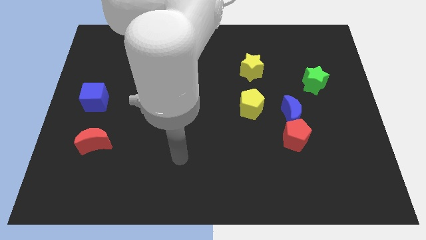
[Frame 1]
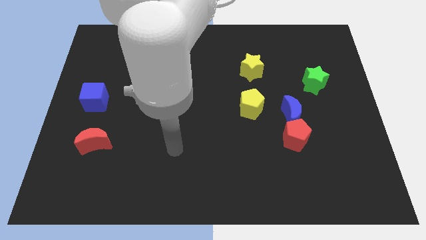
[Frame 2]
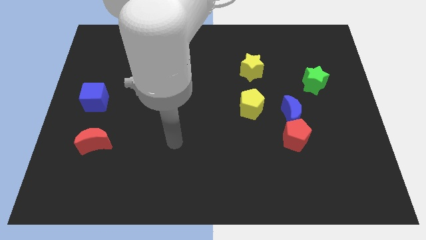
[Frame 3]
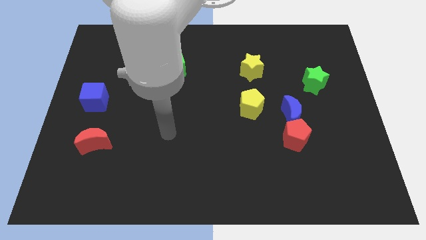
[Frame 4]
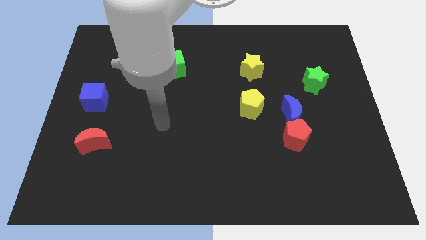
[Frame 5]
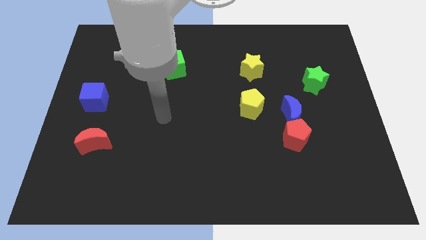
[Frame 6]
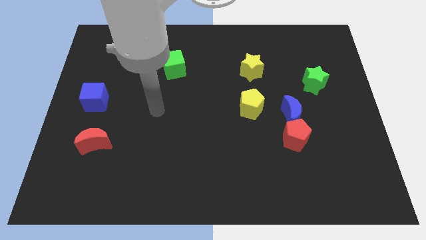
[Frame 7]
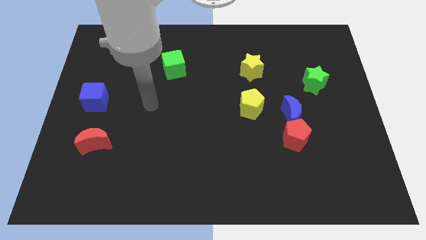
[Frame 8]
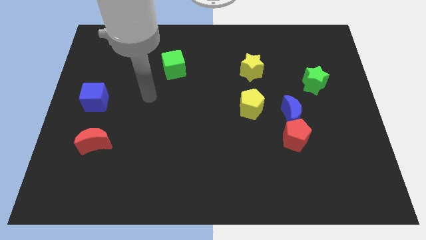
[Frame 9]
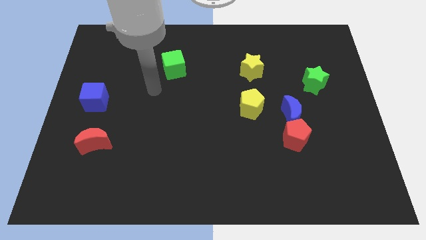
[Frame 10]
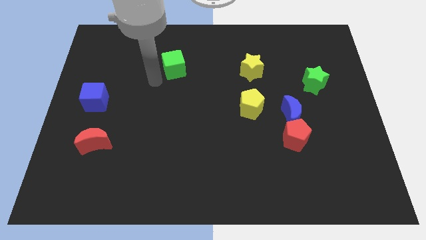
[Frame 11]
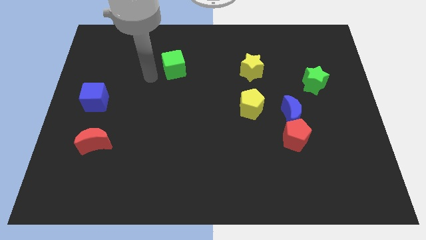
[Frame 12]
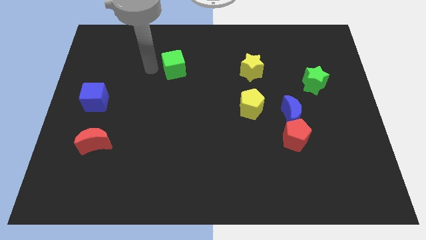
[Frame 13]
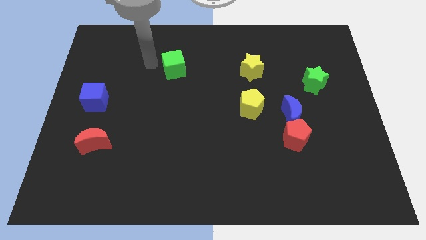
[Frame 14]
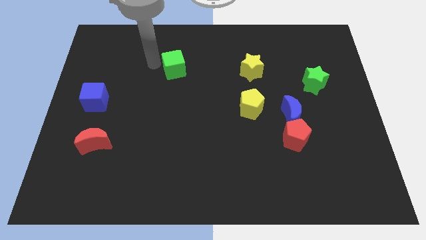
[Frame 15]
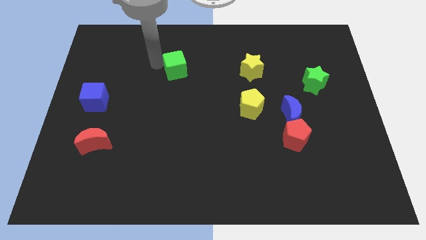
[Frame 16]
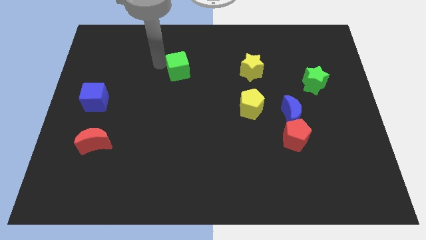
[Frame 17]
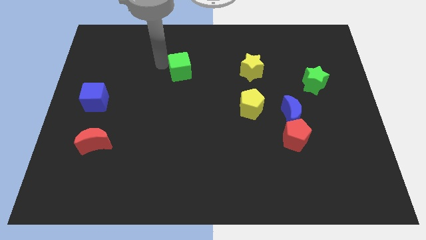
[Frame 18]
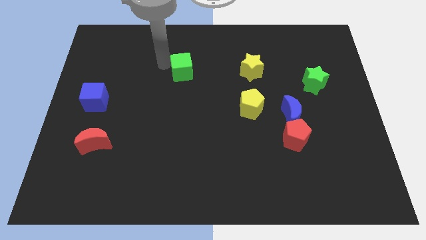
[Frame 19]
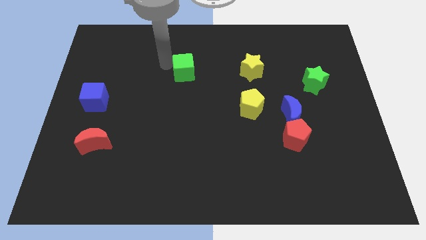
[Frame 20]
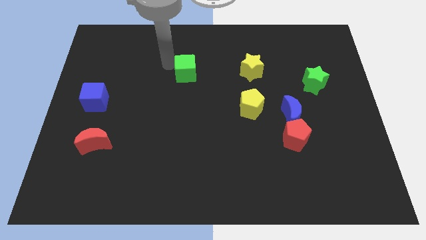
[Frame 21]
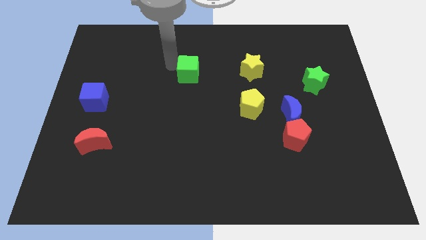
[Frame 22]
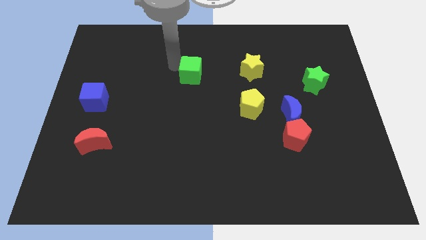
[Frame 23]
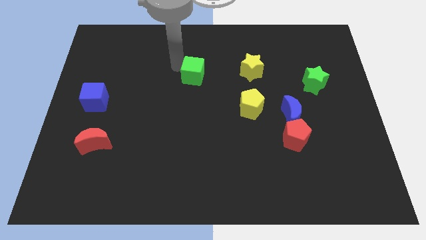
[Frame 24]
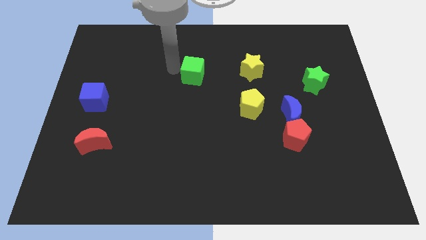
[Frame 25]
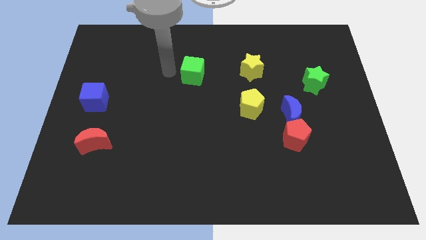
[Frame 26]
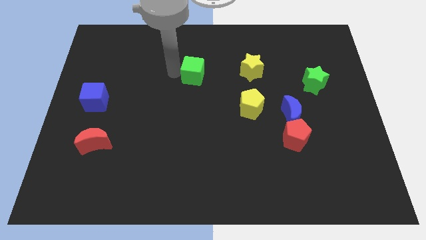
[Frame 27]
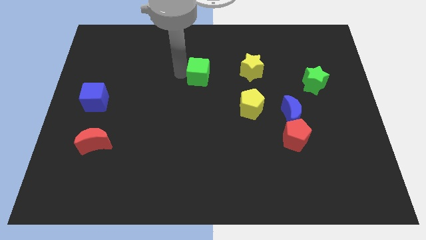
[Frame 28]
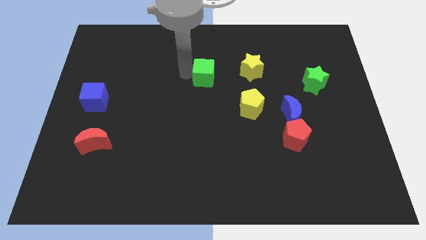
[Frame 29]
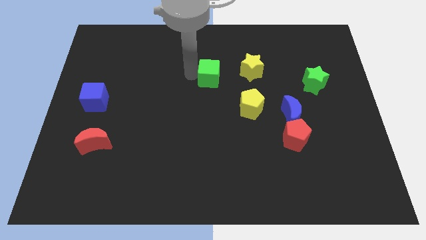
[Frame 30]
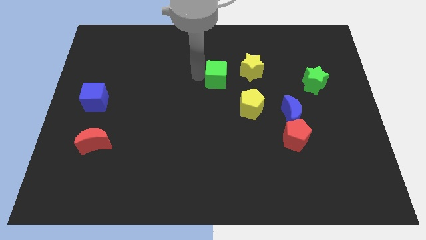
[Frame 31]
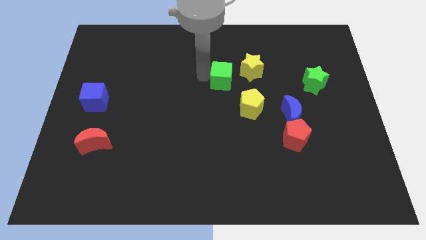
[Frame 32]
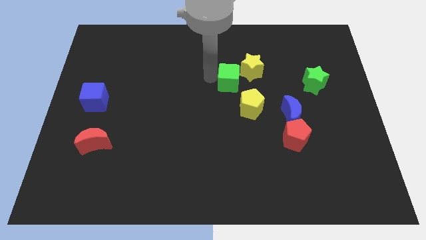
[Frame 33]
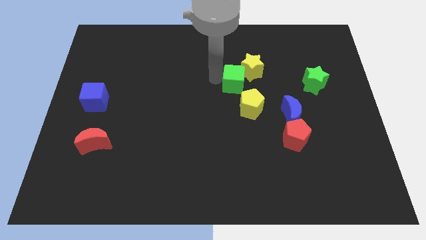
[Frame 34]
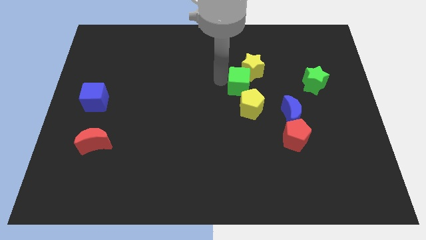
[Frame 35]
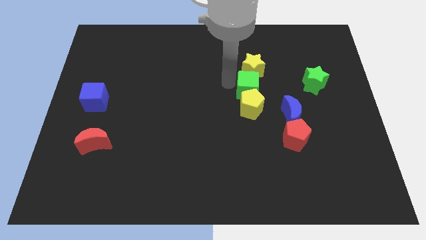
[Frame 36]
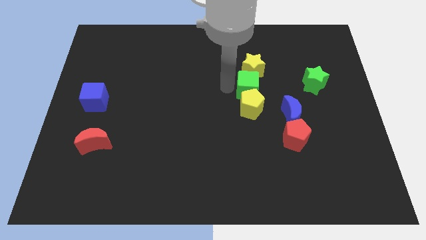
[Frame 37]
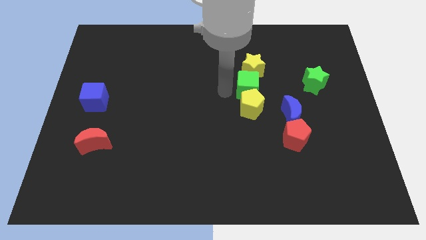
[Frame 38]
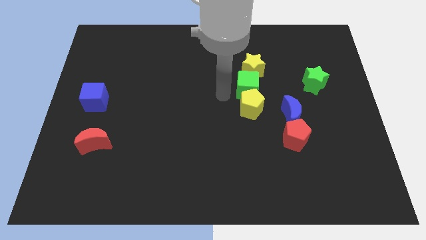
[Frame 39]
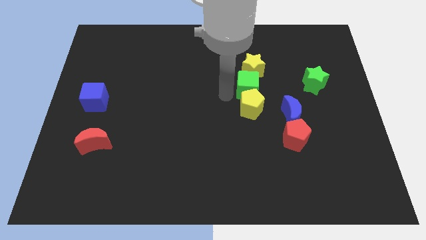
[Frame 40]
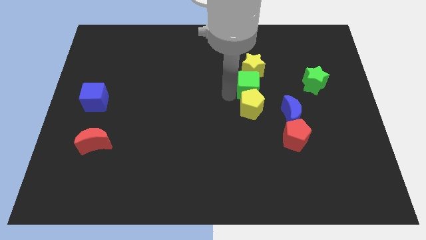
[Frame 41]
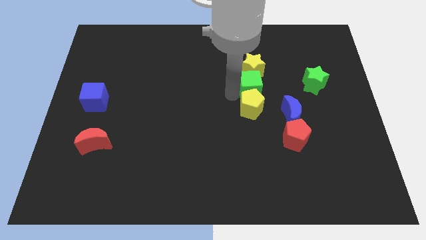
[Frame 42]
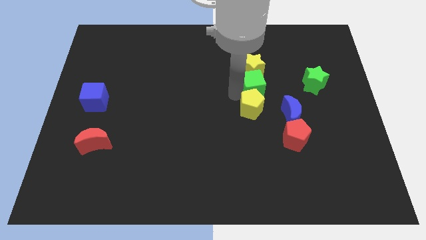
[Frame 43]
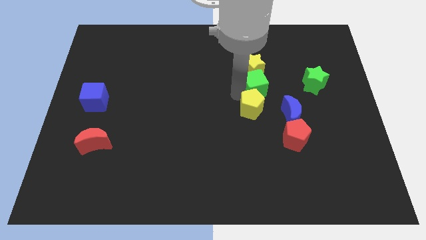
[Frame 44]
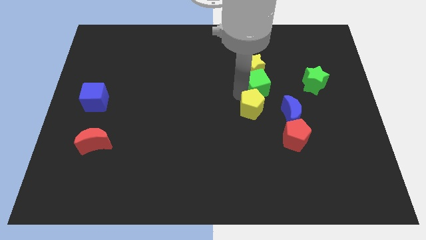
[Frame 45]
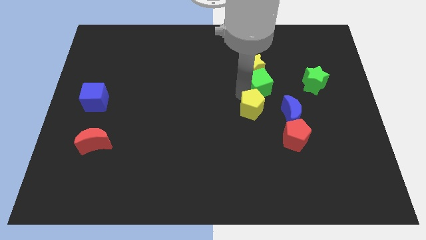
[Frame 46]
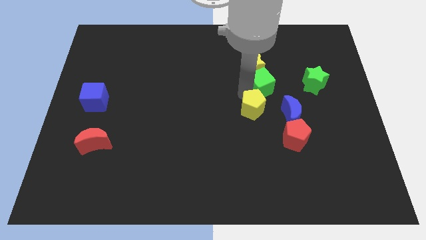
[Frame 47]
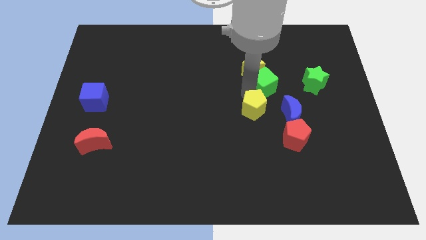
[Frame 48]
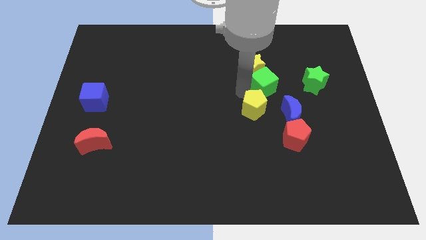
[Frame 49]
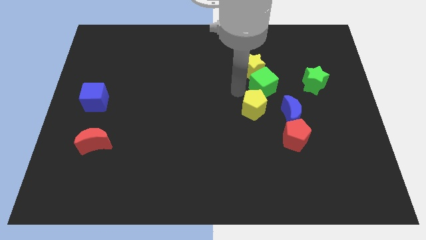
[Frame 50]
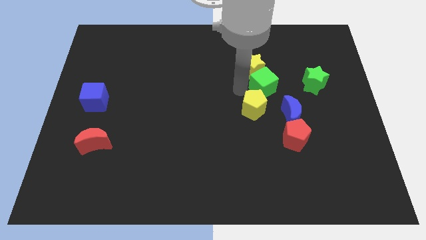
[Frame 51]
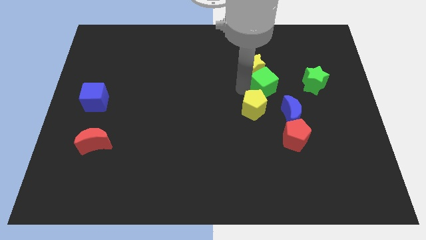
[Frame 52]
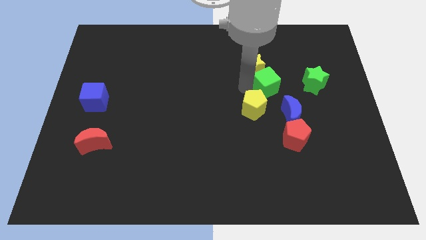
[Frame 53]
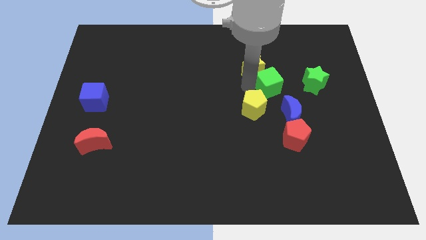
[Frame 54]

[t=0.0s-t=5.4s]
put the green cube above the blue moon

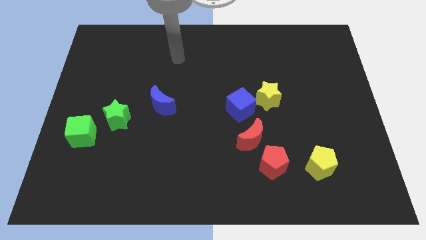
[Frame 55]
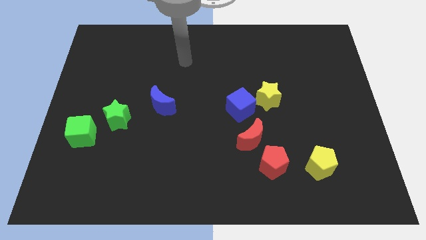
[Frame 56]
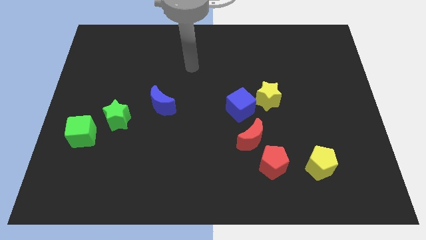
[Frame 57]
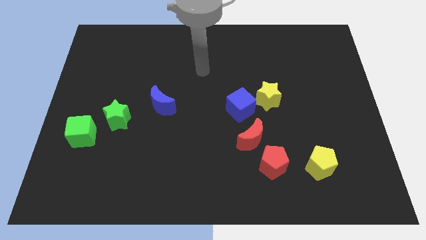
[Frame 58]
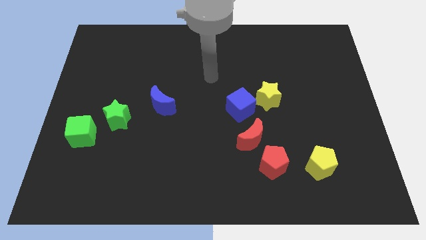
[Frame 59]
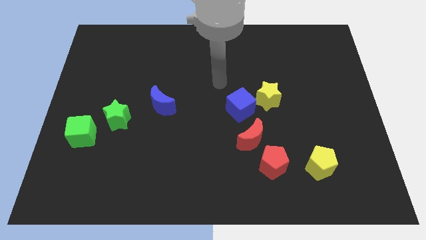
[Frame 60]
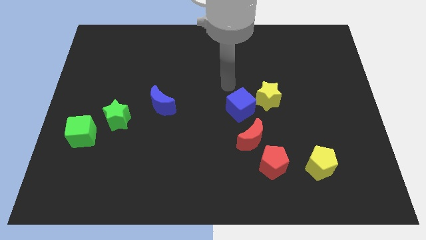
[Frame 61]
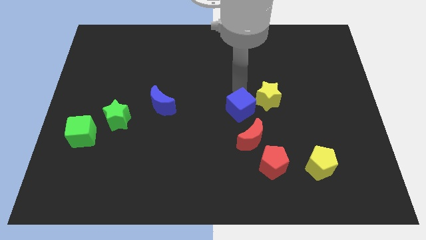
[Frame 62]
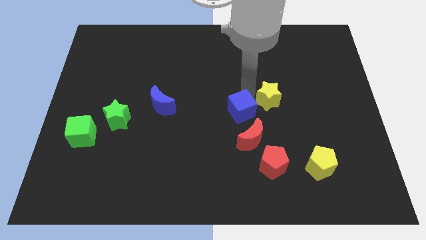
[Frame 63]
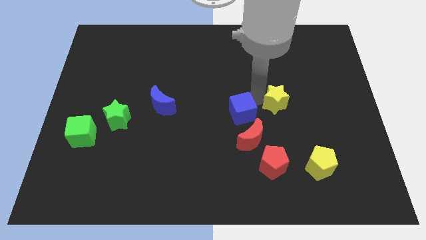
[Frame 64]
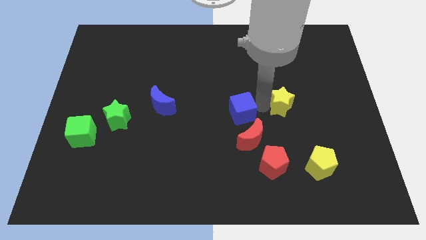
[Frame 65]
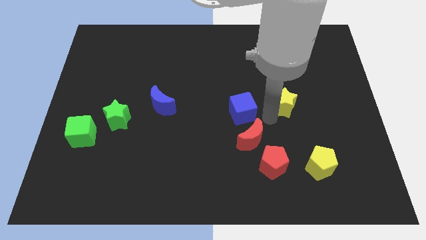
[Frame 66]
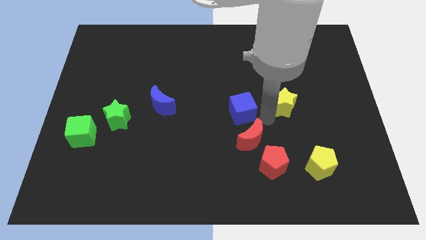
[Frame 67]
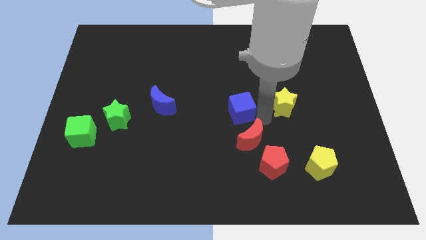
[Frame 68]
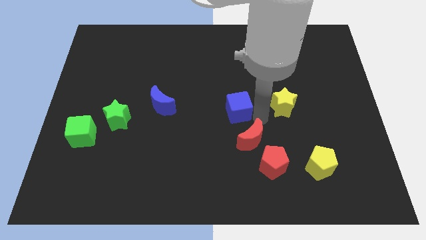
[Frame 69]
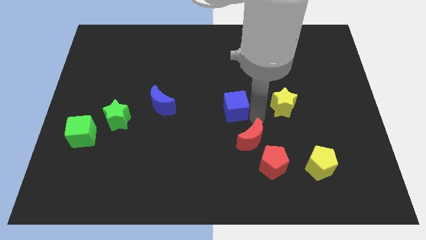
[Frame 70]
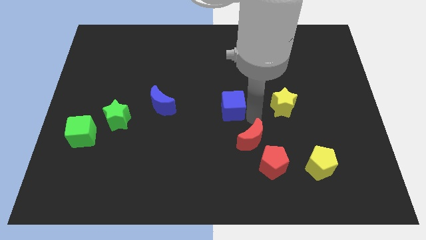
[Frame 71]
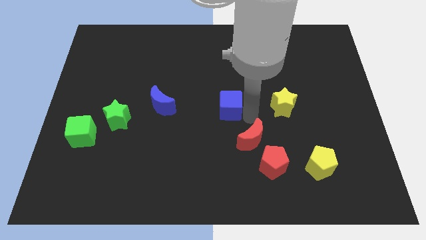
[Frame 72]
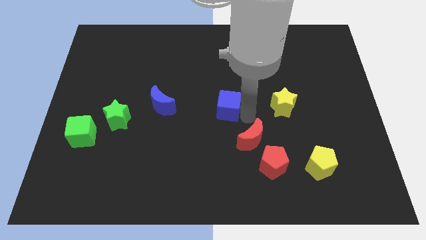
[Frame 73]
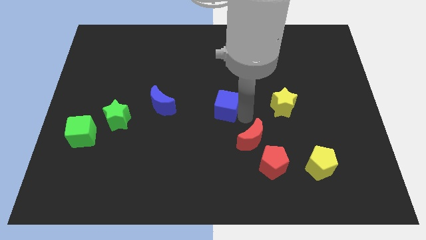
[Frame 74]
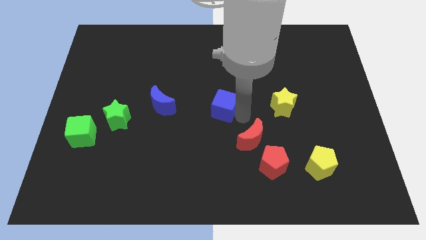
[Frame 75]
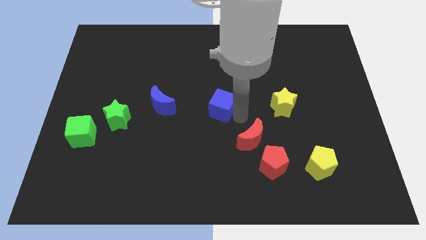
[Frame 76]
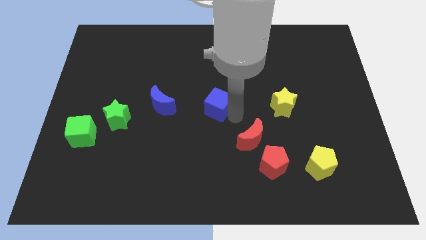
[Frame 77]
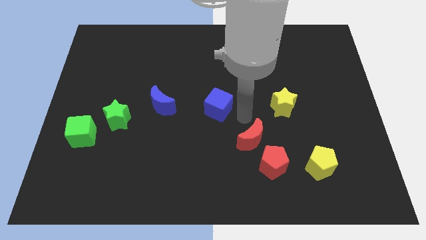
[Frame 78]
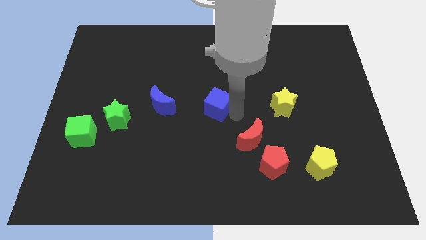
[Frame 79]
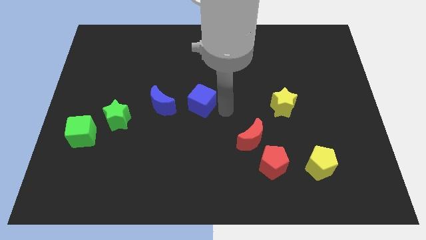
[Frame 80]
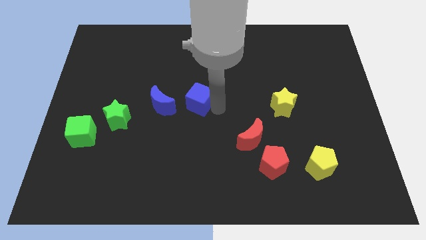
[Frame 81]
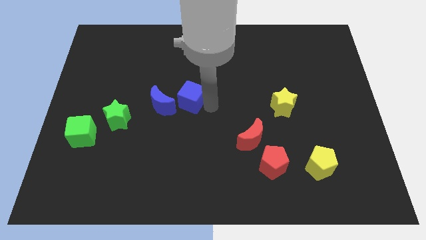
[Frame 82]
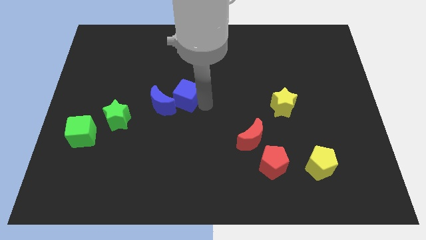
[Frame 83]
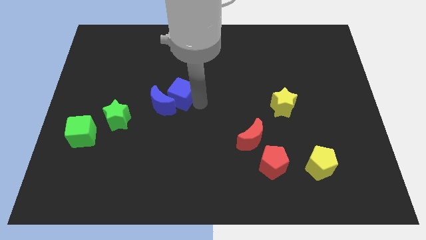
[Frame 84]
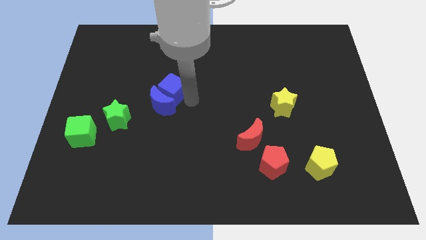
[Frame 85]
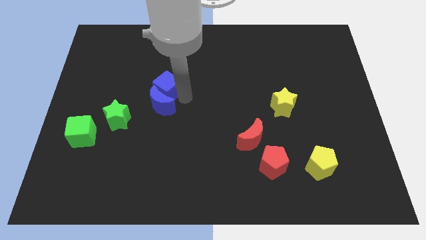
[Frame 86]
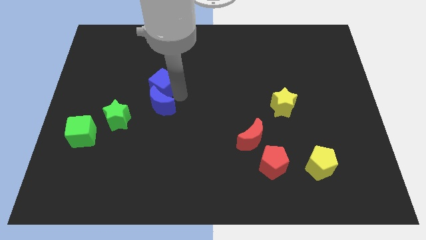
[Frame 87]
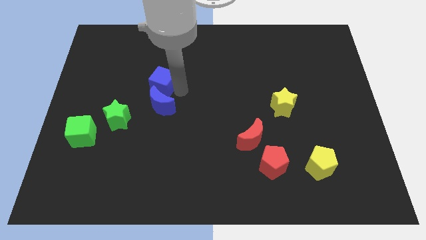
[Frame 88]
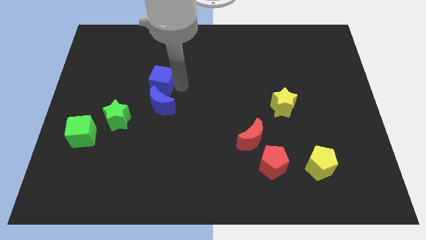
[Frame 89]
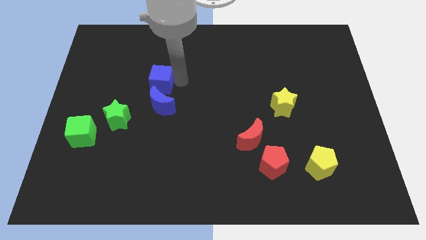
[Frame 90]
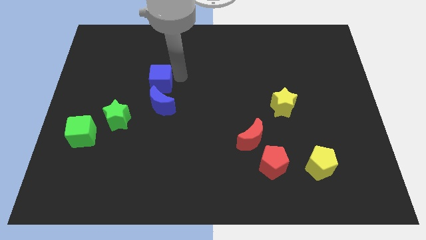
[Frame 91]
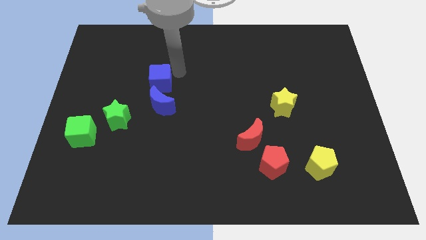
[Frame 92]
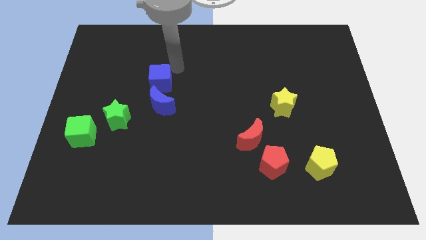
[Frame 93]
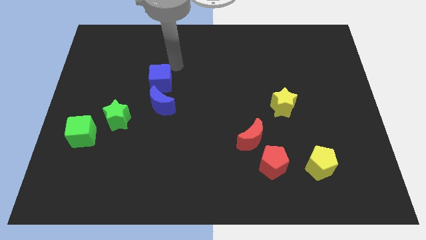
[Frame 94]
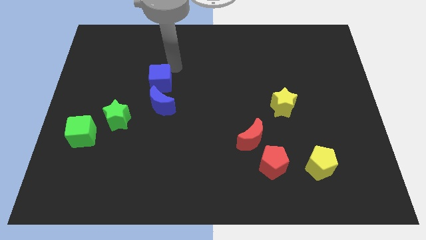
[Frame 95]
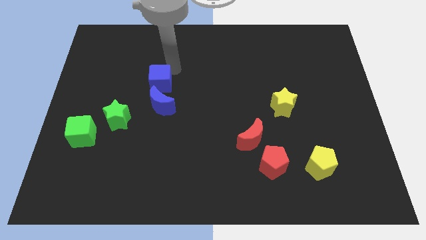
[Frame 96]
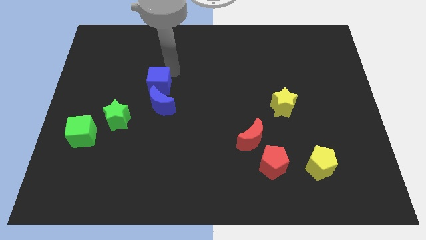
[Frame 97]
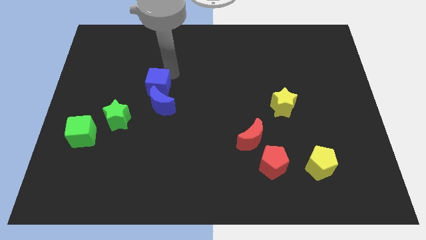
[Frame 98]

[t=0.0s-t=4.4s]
push the blue cube to the top right side of the green star
